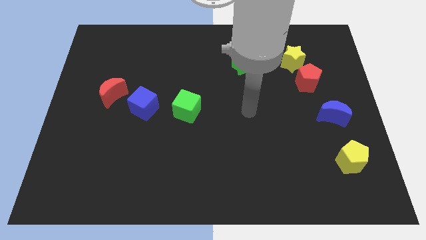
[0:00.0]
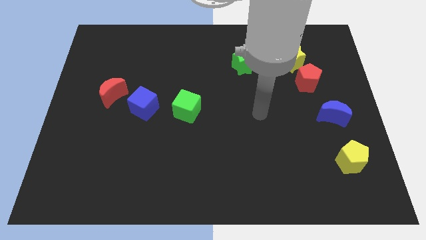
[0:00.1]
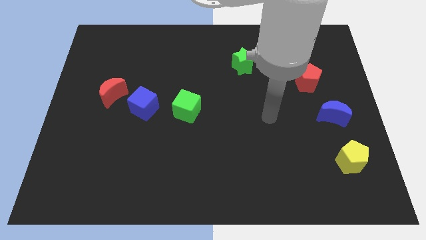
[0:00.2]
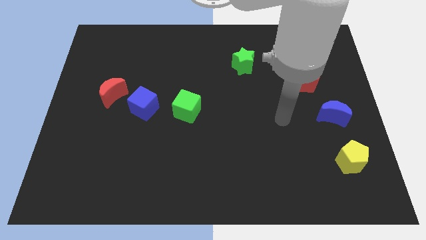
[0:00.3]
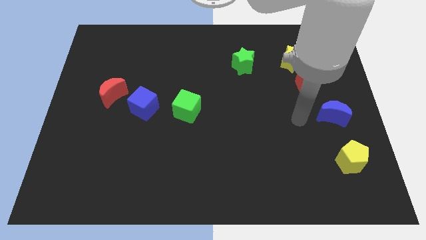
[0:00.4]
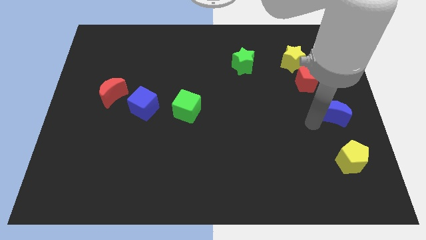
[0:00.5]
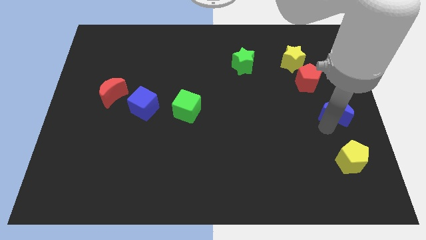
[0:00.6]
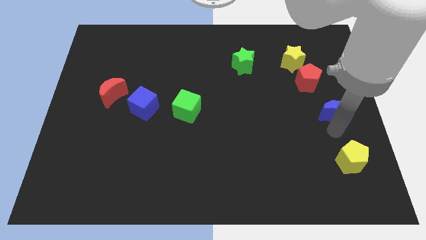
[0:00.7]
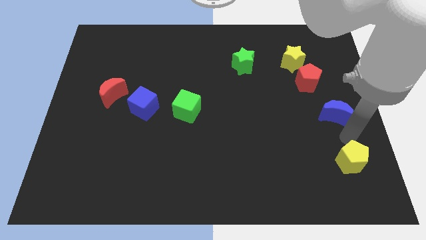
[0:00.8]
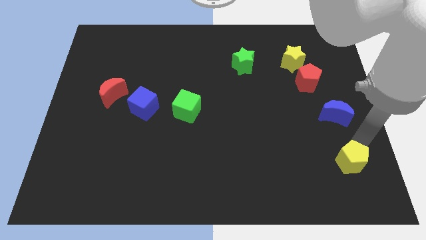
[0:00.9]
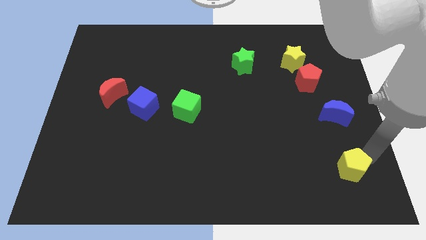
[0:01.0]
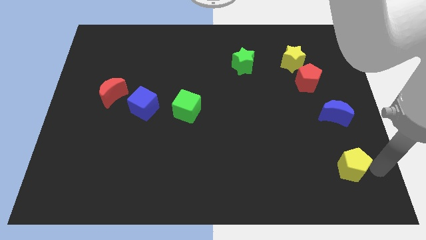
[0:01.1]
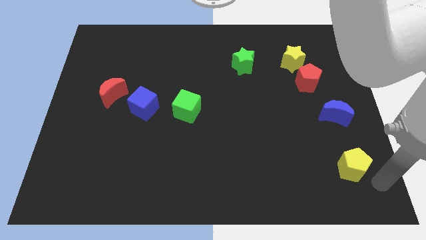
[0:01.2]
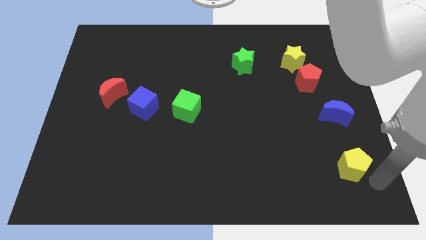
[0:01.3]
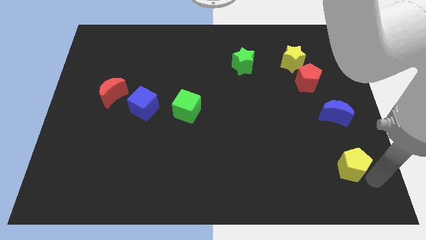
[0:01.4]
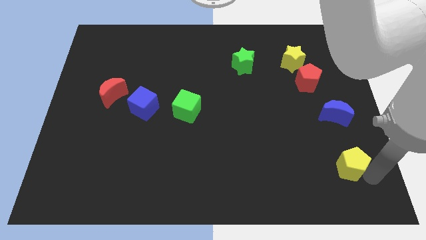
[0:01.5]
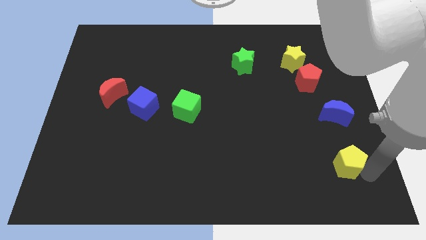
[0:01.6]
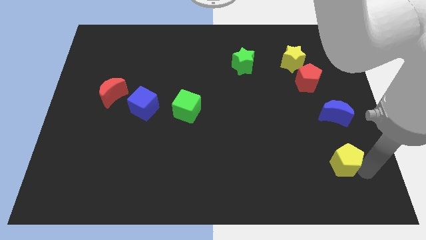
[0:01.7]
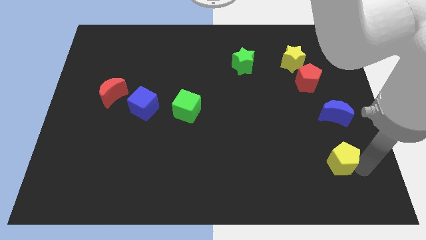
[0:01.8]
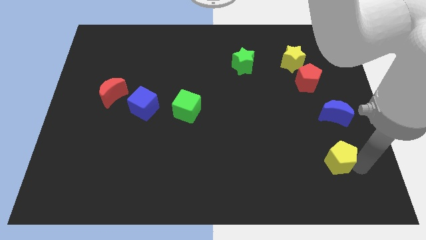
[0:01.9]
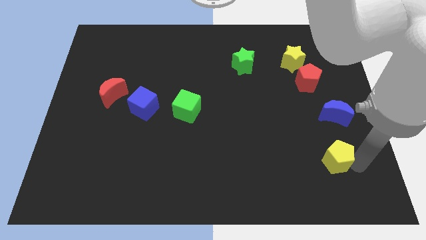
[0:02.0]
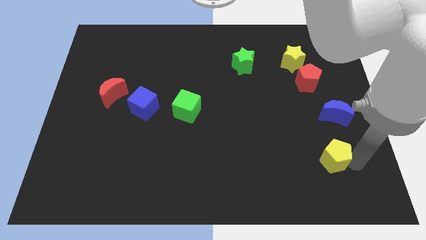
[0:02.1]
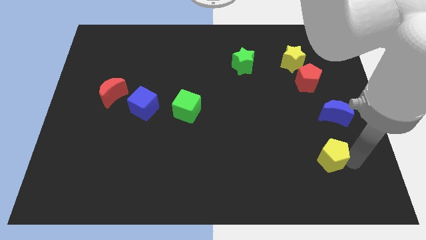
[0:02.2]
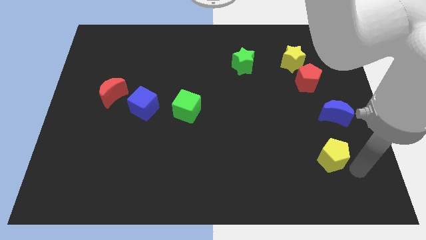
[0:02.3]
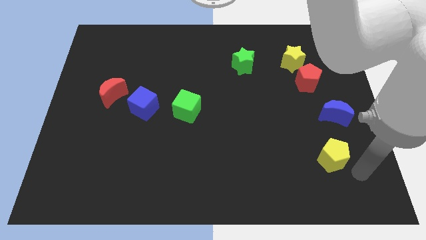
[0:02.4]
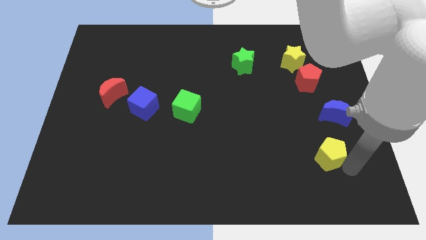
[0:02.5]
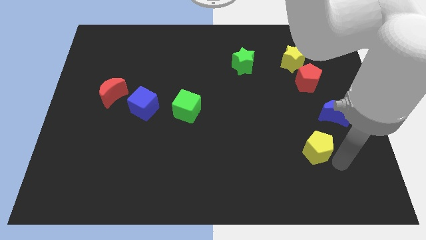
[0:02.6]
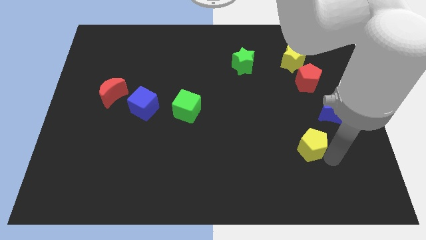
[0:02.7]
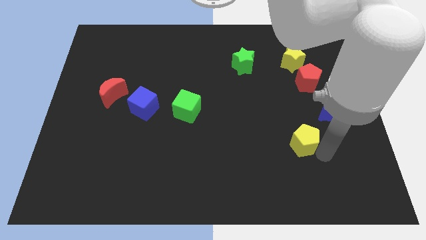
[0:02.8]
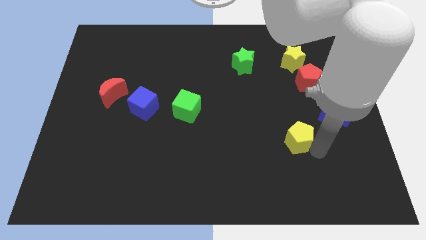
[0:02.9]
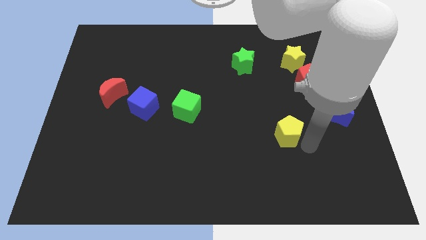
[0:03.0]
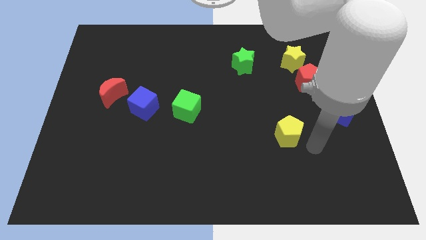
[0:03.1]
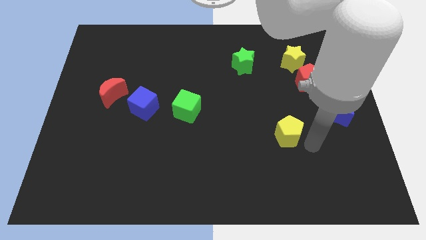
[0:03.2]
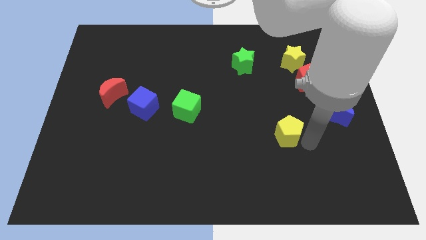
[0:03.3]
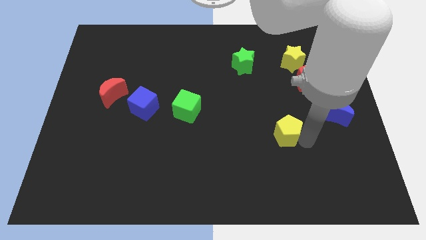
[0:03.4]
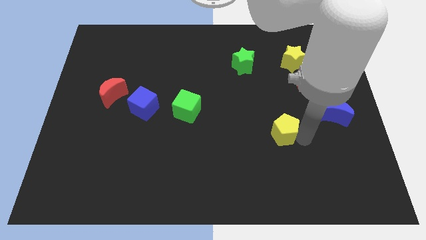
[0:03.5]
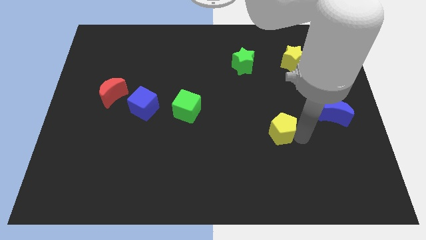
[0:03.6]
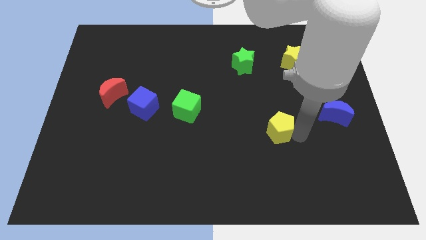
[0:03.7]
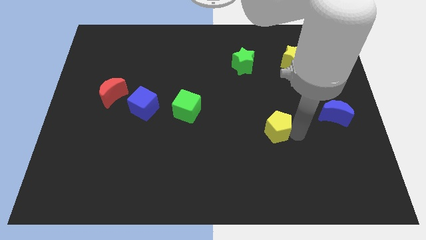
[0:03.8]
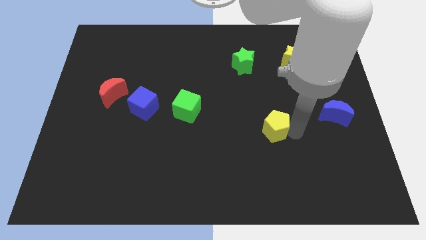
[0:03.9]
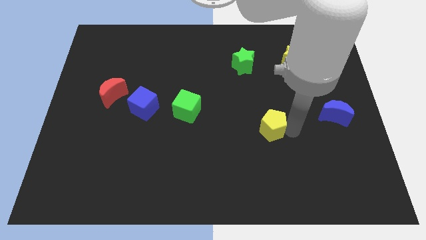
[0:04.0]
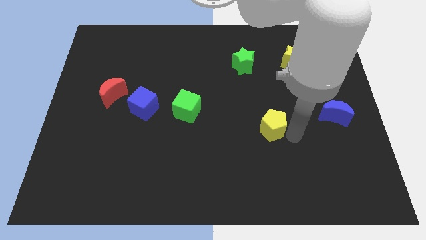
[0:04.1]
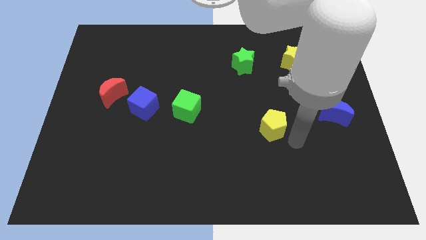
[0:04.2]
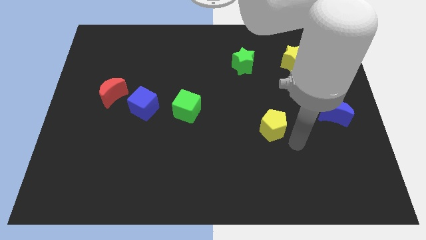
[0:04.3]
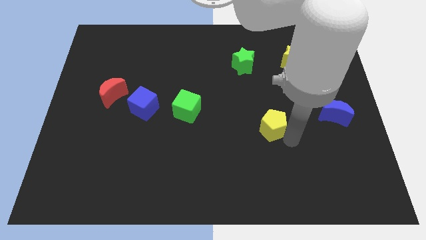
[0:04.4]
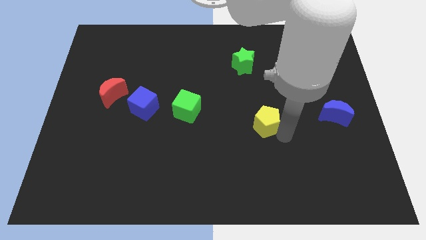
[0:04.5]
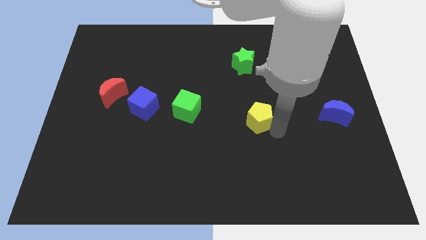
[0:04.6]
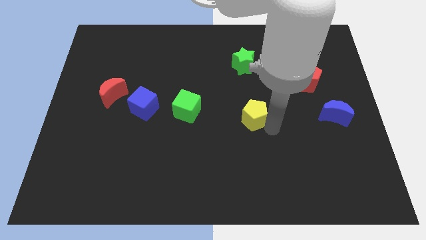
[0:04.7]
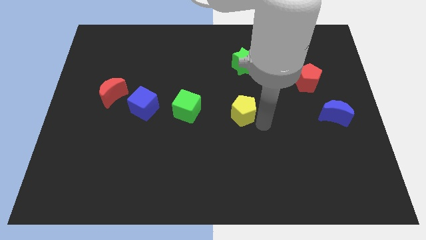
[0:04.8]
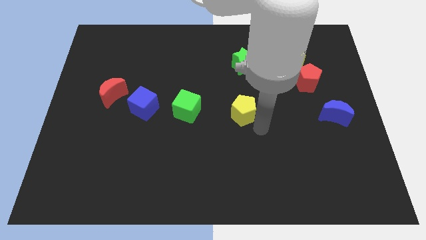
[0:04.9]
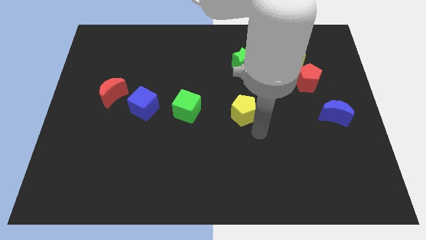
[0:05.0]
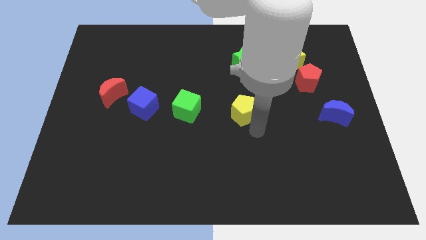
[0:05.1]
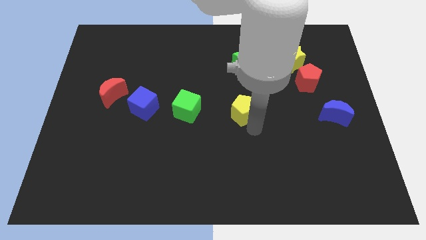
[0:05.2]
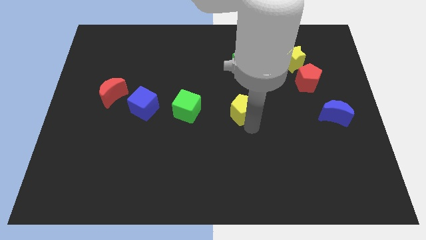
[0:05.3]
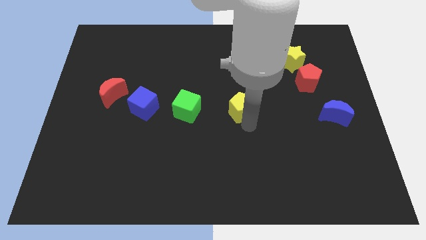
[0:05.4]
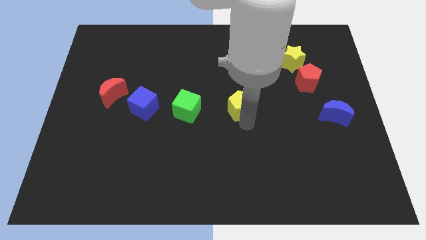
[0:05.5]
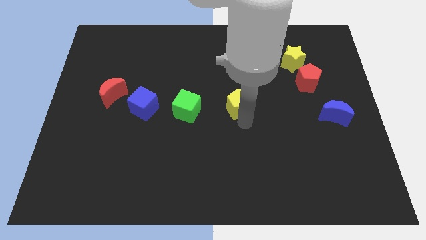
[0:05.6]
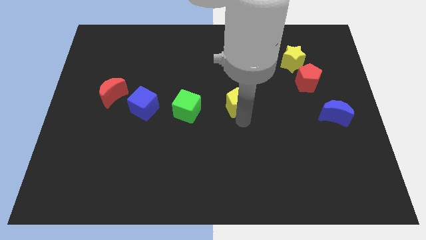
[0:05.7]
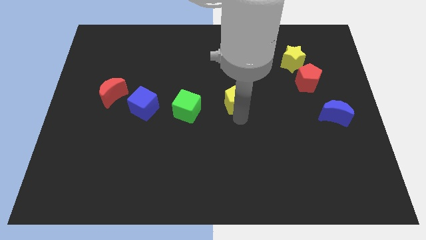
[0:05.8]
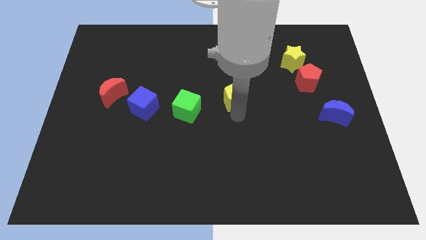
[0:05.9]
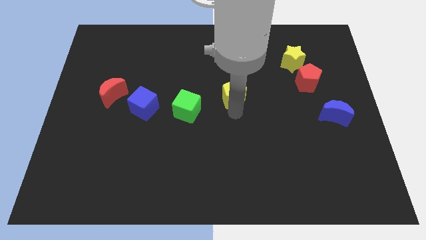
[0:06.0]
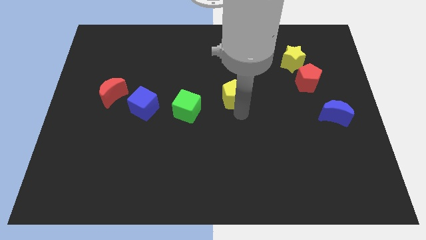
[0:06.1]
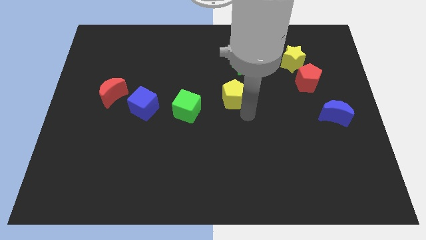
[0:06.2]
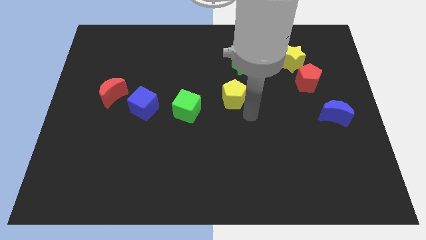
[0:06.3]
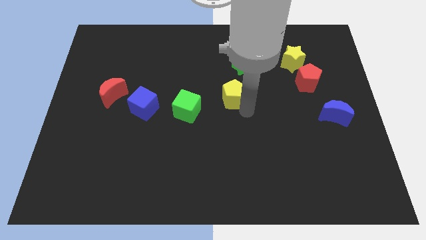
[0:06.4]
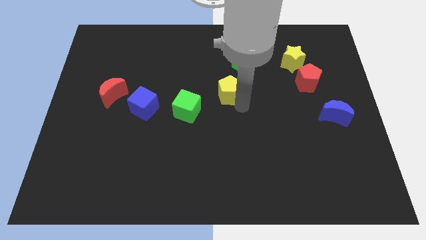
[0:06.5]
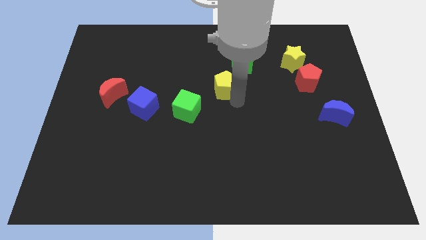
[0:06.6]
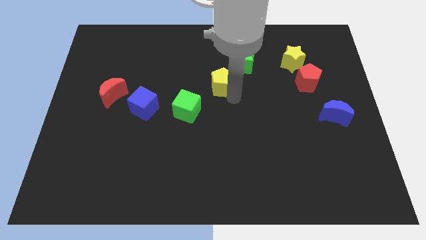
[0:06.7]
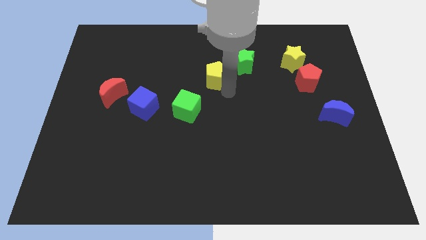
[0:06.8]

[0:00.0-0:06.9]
slide the yellow pentagon to the left side of the green star

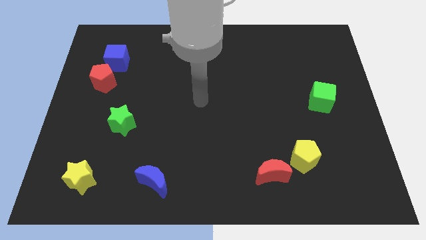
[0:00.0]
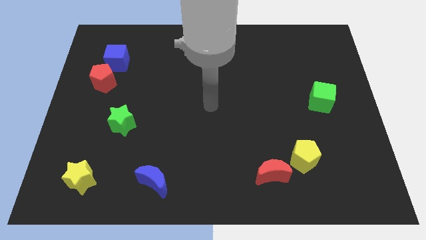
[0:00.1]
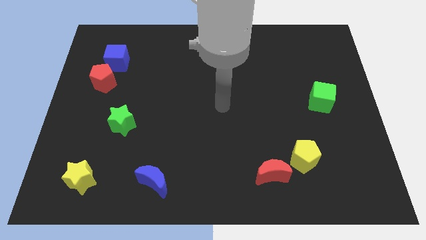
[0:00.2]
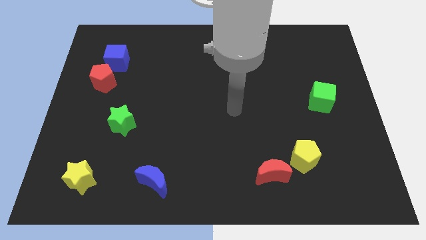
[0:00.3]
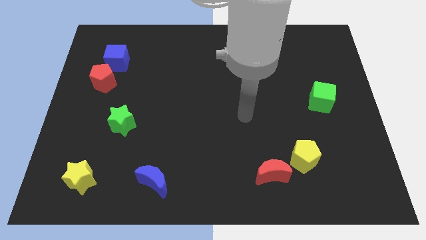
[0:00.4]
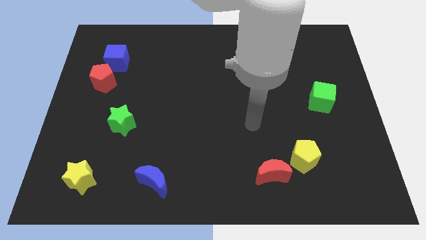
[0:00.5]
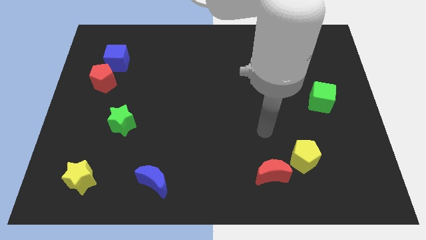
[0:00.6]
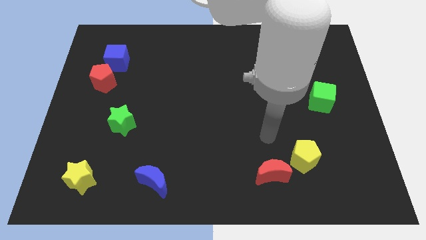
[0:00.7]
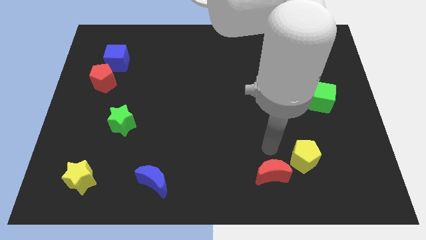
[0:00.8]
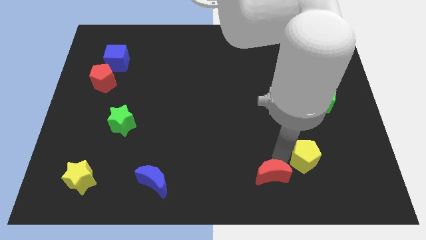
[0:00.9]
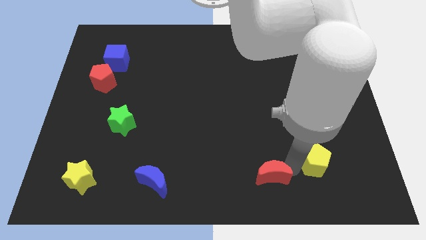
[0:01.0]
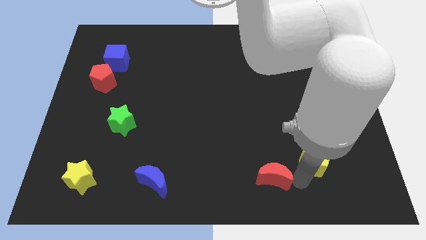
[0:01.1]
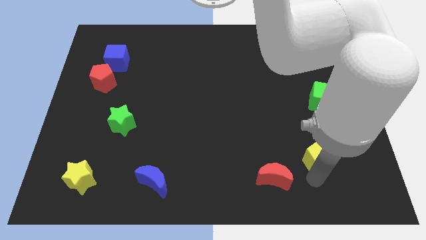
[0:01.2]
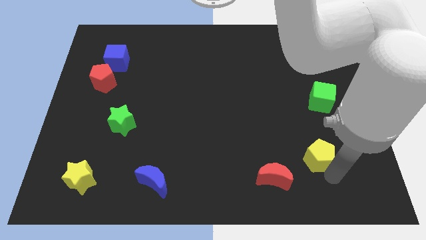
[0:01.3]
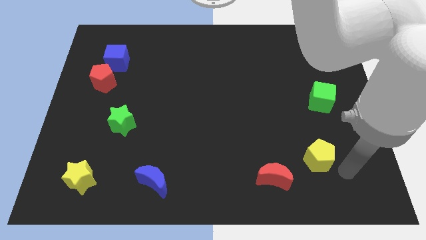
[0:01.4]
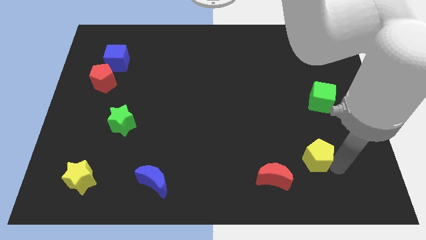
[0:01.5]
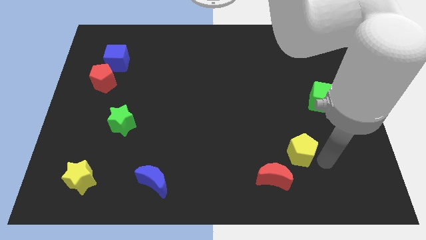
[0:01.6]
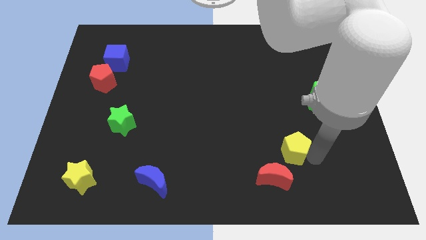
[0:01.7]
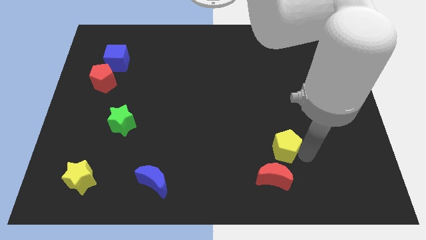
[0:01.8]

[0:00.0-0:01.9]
slide the yellow pentagon above the red moon
